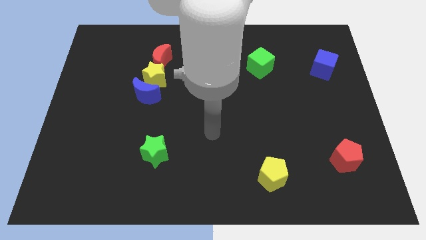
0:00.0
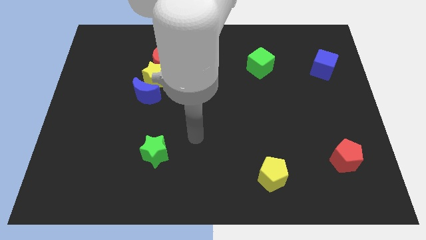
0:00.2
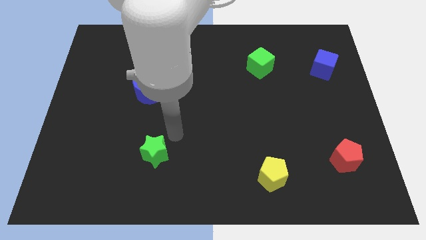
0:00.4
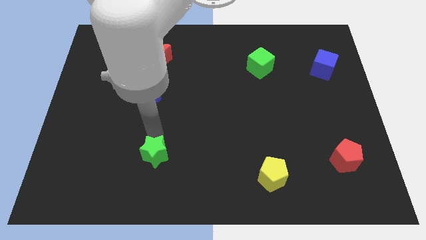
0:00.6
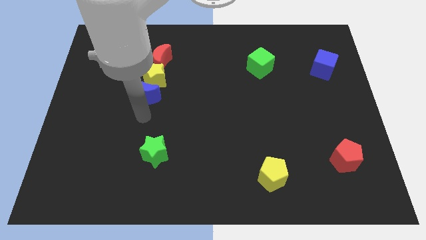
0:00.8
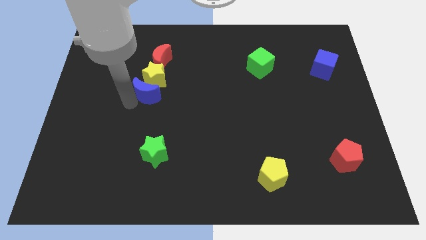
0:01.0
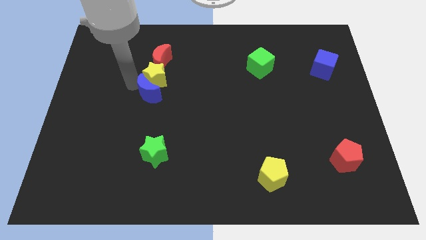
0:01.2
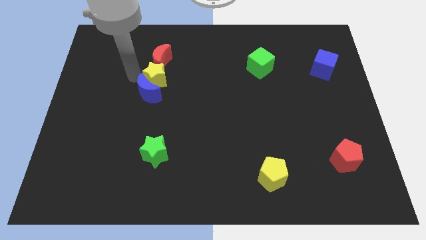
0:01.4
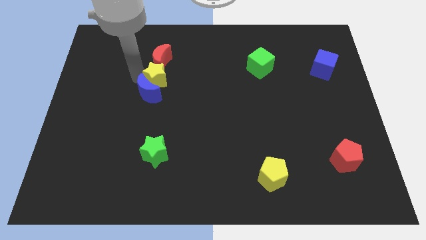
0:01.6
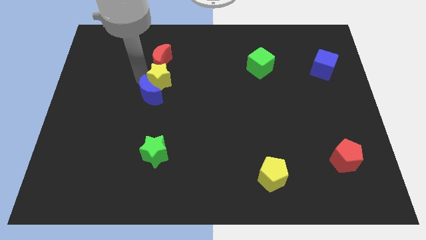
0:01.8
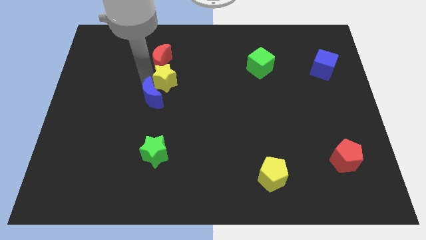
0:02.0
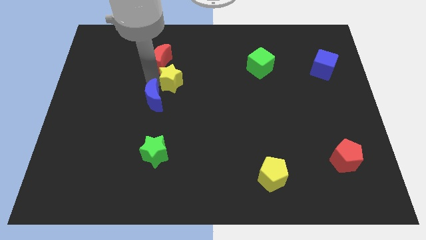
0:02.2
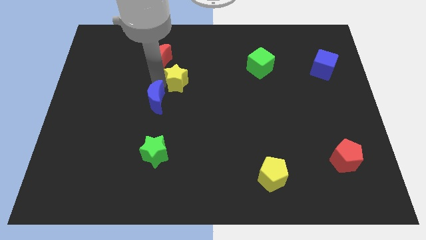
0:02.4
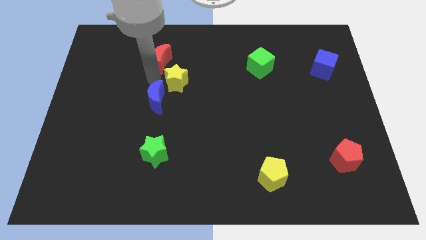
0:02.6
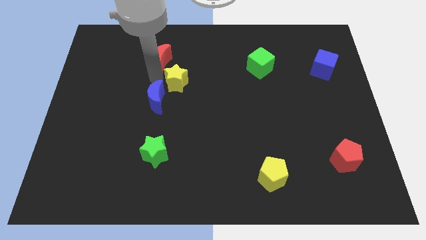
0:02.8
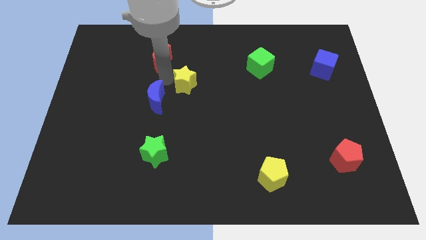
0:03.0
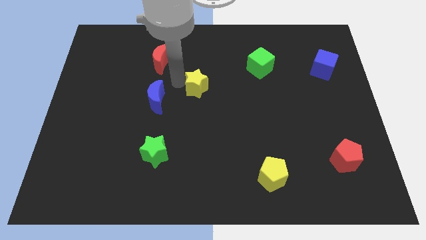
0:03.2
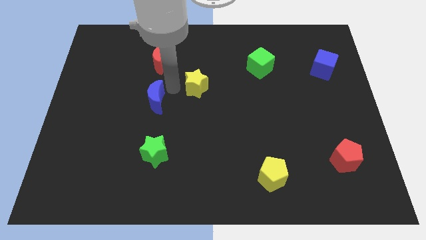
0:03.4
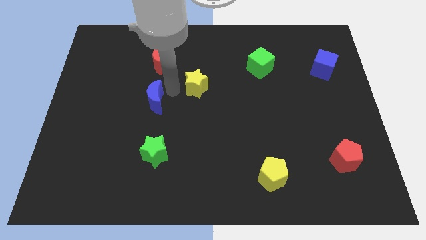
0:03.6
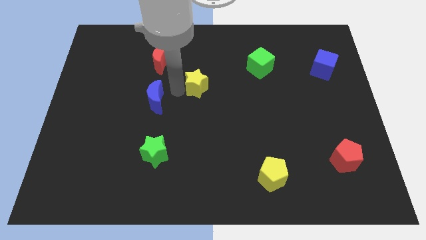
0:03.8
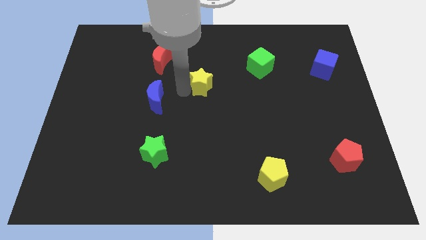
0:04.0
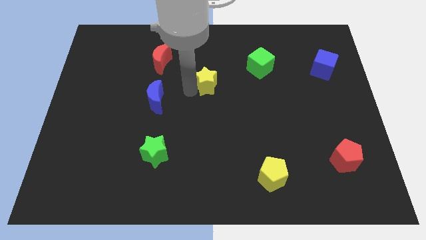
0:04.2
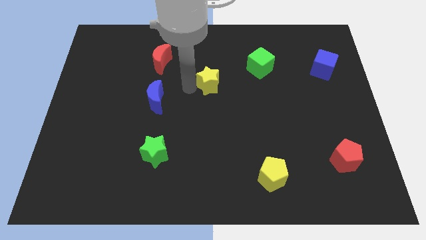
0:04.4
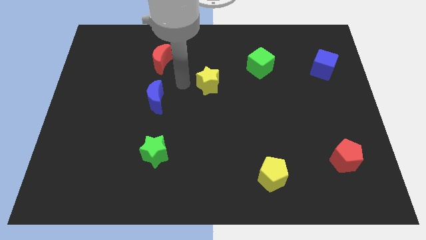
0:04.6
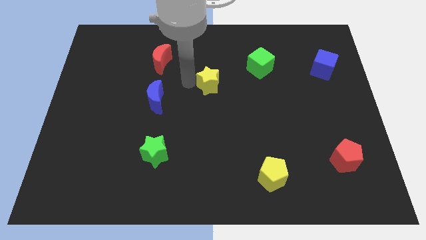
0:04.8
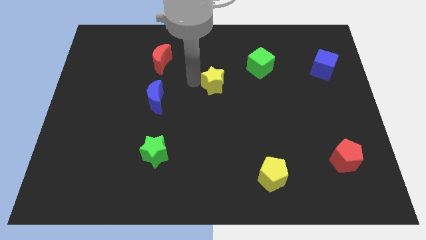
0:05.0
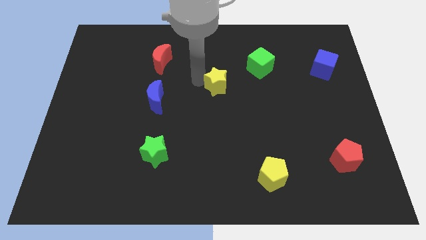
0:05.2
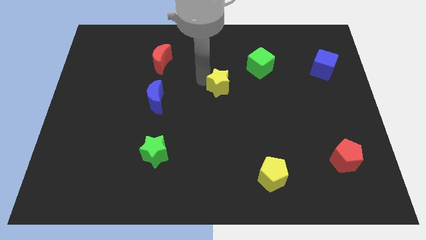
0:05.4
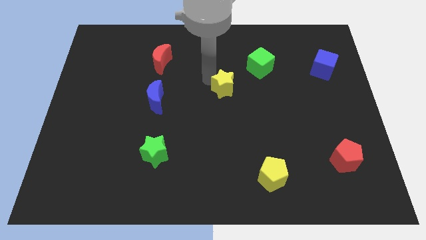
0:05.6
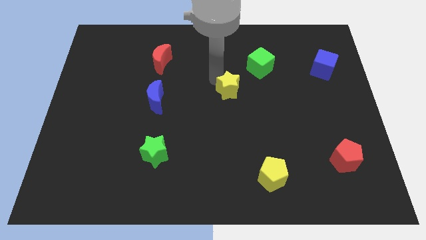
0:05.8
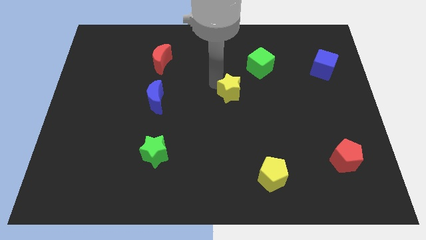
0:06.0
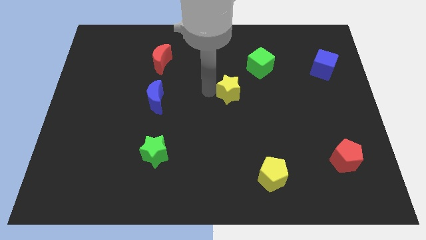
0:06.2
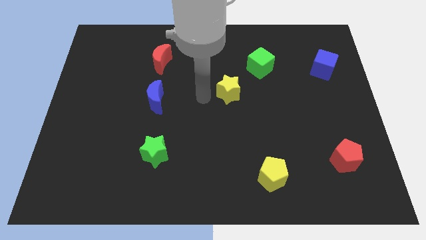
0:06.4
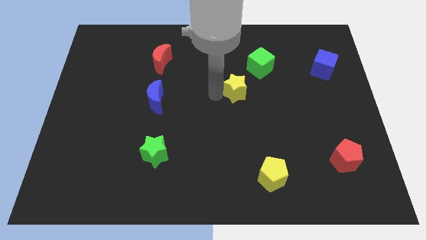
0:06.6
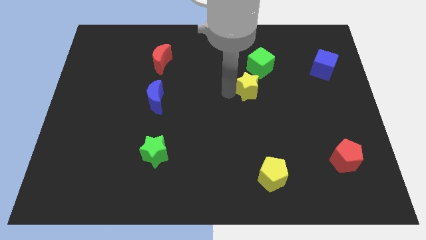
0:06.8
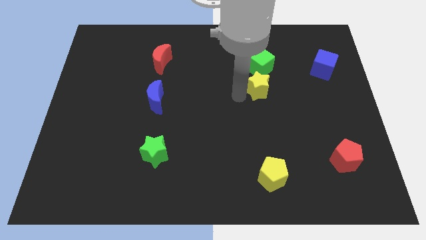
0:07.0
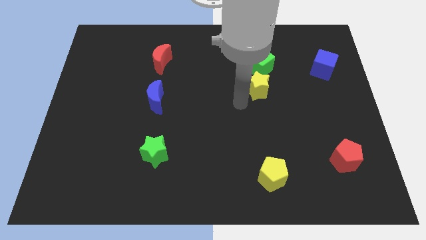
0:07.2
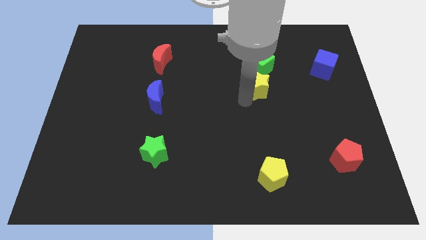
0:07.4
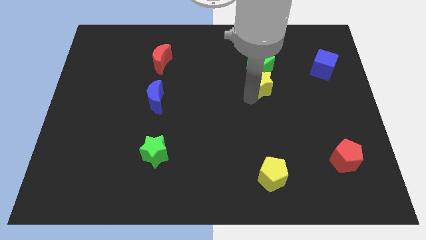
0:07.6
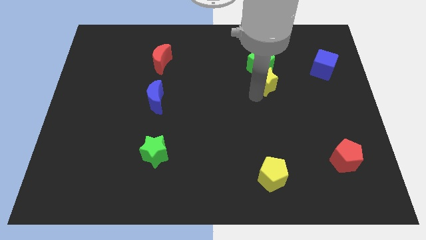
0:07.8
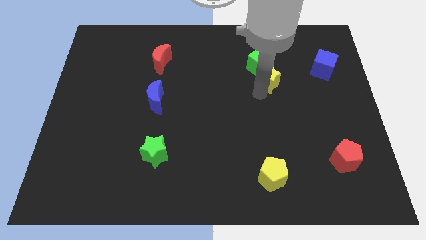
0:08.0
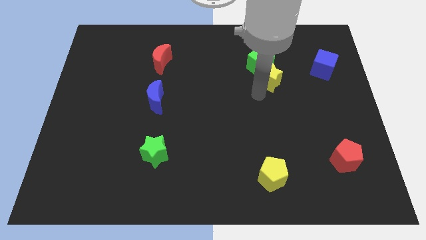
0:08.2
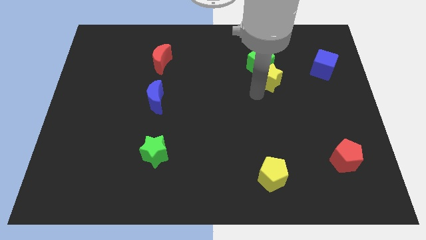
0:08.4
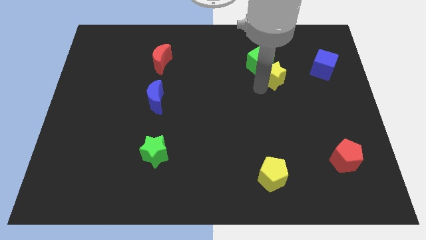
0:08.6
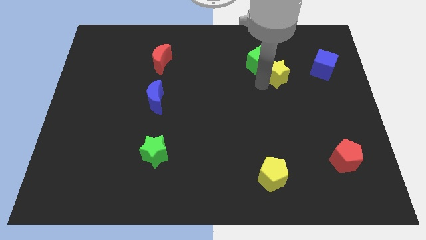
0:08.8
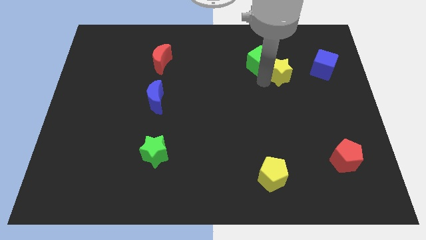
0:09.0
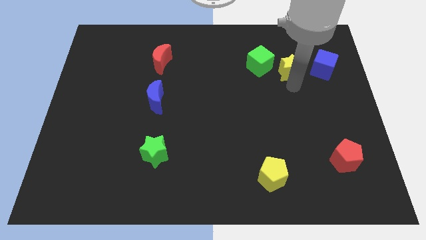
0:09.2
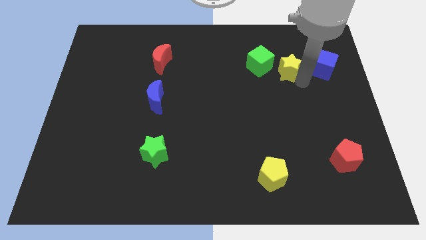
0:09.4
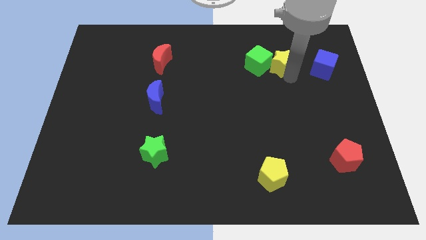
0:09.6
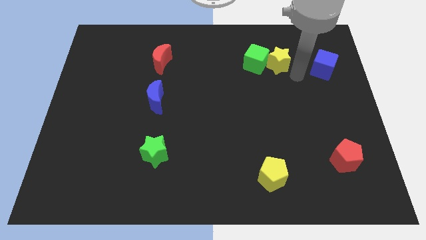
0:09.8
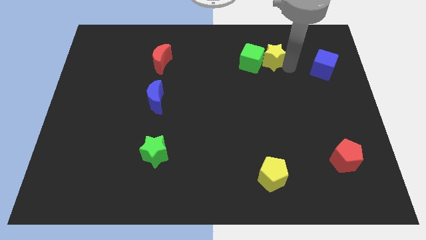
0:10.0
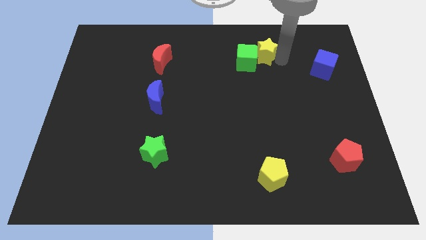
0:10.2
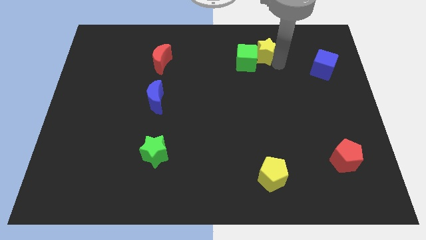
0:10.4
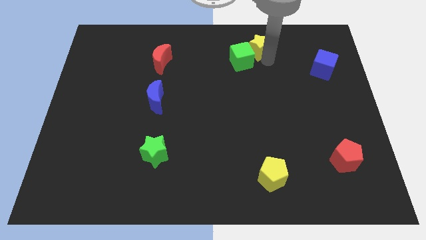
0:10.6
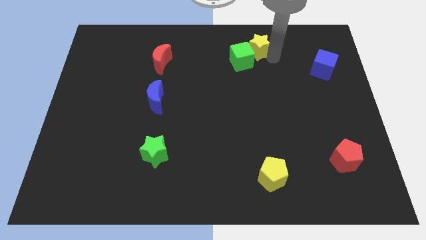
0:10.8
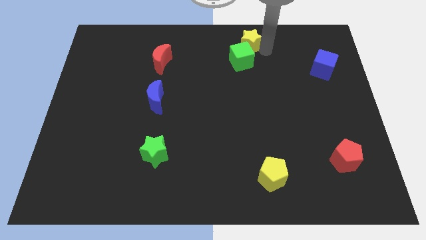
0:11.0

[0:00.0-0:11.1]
move the yellow star to the top side
